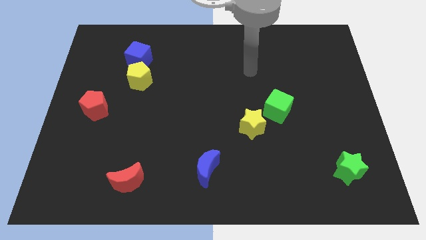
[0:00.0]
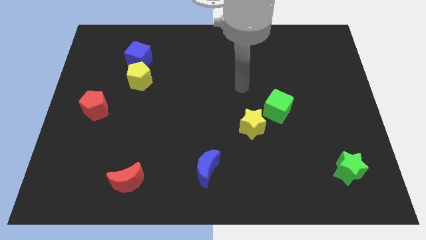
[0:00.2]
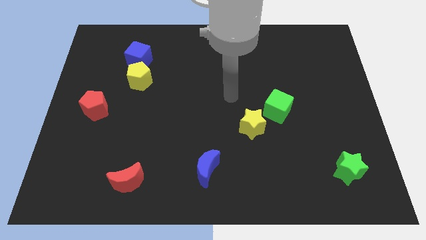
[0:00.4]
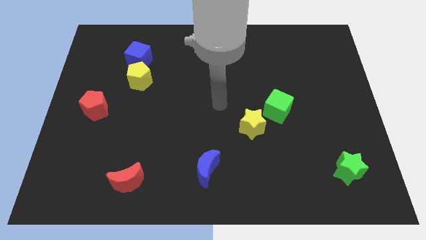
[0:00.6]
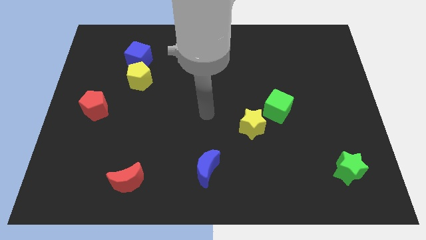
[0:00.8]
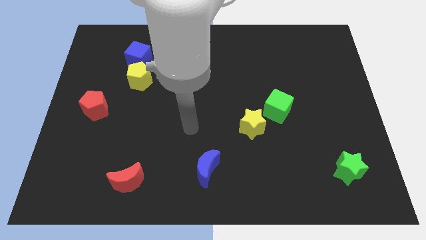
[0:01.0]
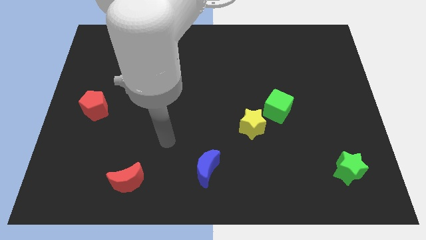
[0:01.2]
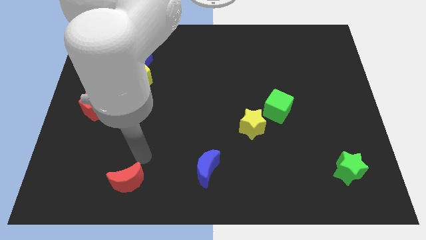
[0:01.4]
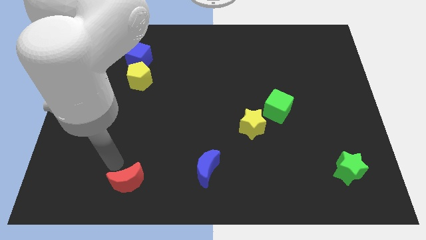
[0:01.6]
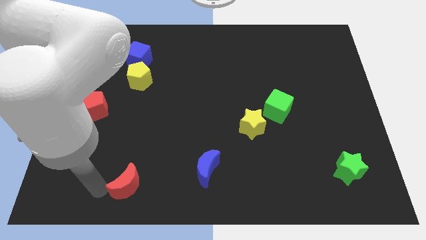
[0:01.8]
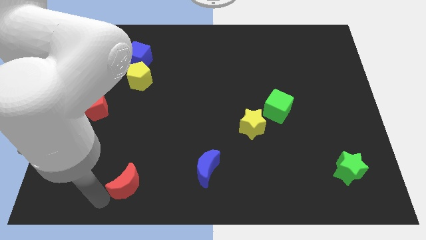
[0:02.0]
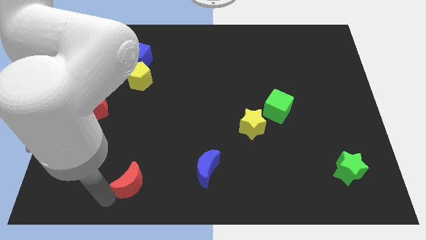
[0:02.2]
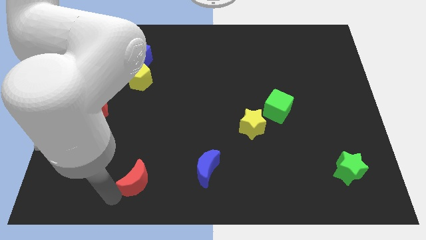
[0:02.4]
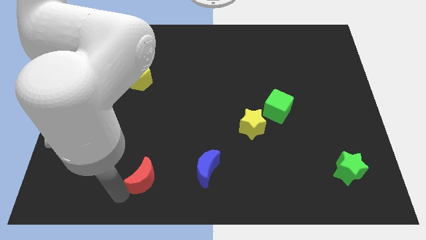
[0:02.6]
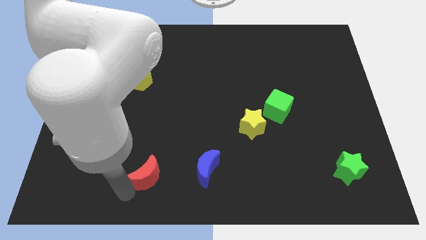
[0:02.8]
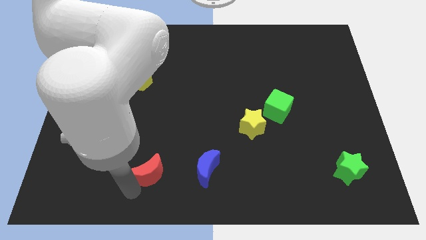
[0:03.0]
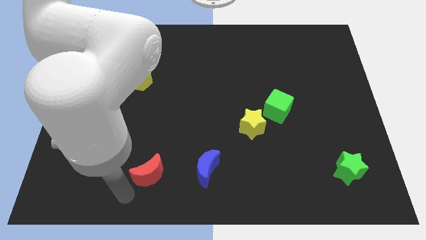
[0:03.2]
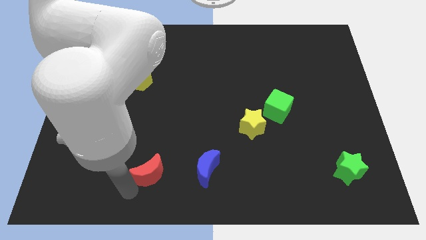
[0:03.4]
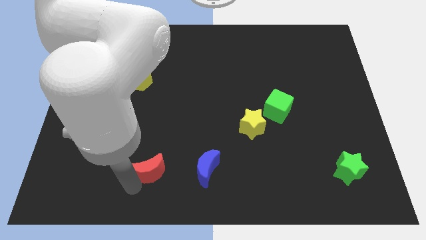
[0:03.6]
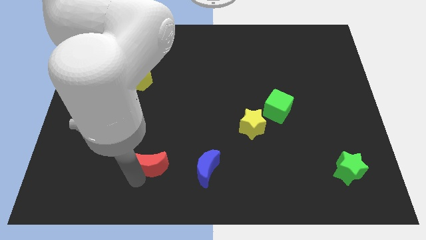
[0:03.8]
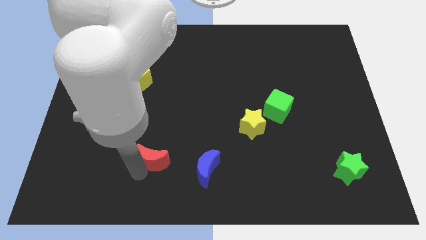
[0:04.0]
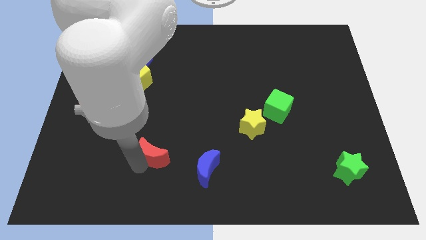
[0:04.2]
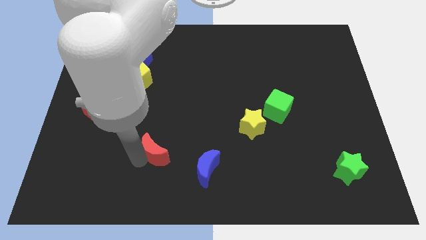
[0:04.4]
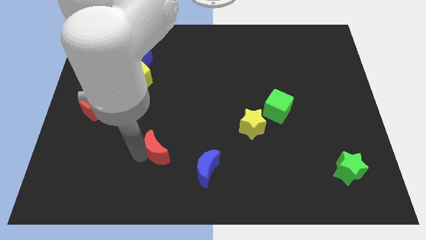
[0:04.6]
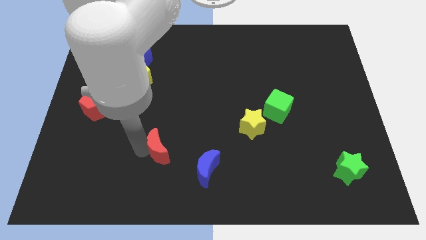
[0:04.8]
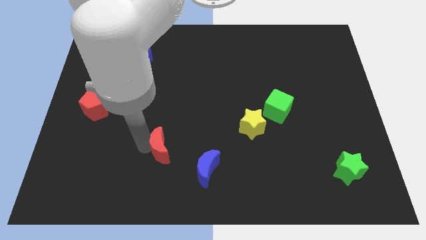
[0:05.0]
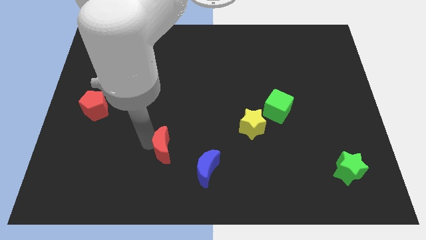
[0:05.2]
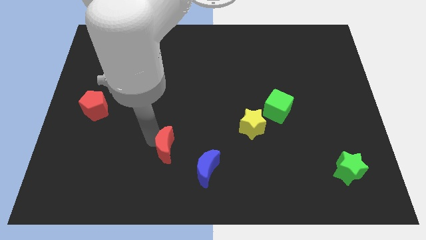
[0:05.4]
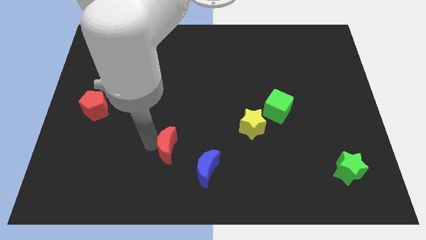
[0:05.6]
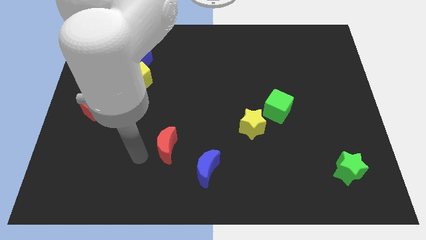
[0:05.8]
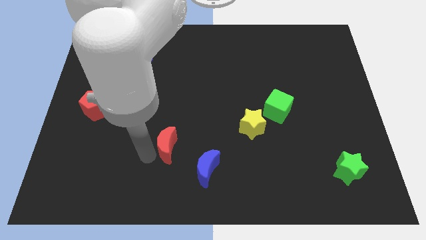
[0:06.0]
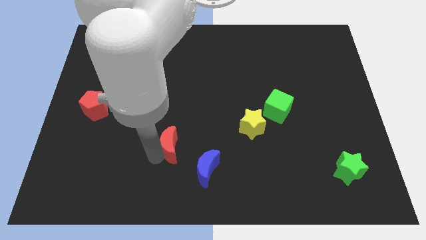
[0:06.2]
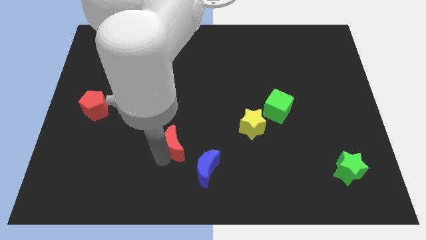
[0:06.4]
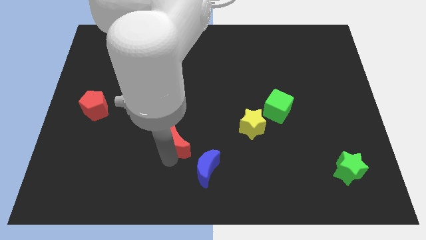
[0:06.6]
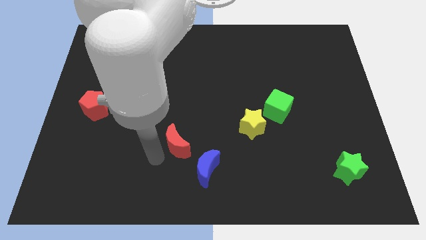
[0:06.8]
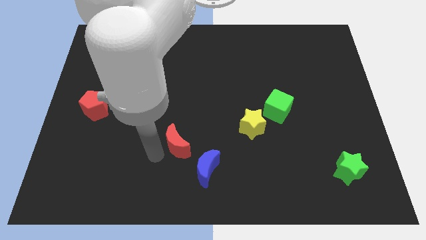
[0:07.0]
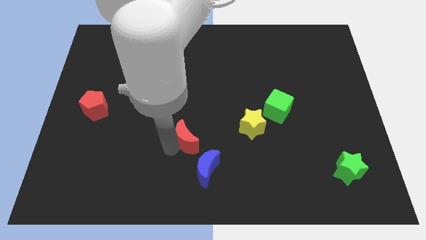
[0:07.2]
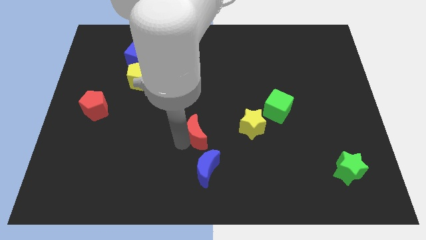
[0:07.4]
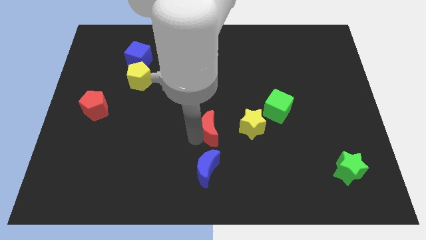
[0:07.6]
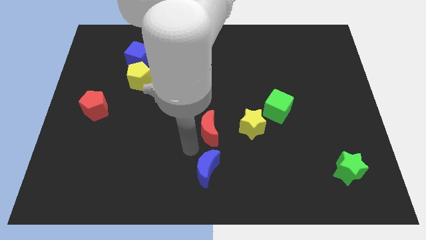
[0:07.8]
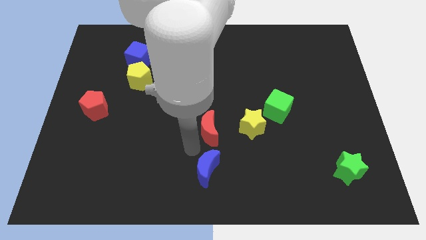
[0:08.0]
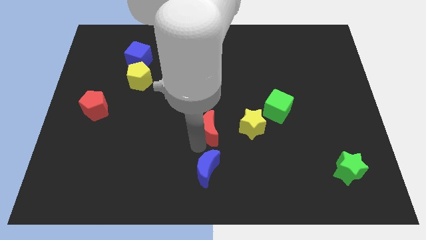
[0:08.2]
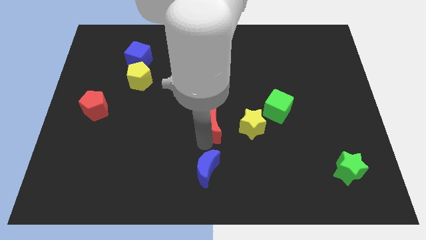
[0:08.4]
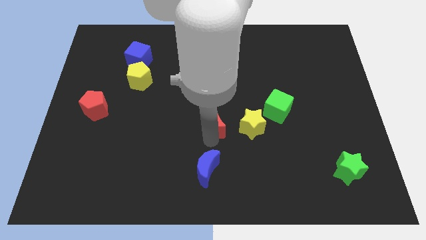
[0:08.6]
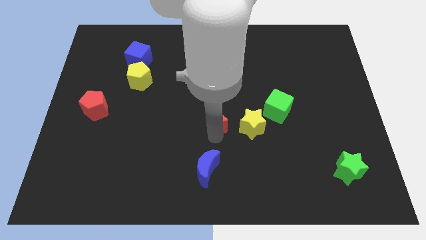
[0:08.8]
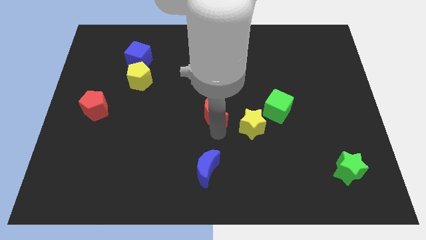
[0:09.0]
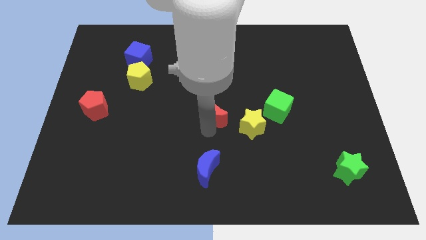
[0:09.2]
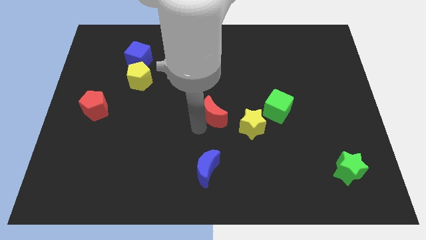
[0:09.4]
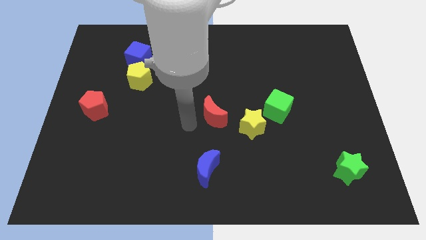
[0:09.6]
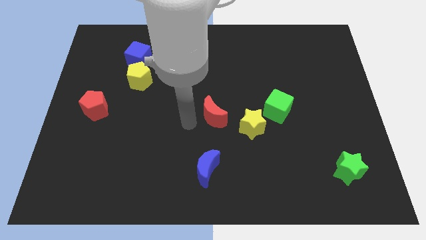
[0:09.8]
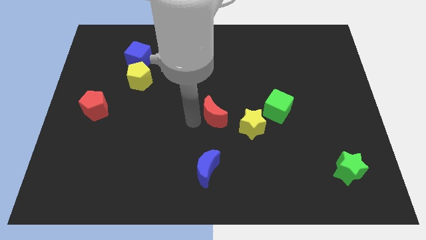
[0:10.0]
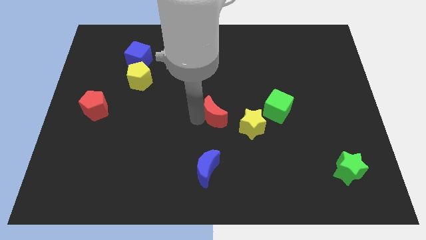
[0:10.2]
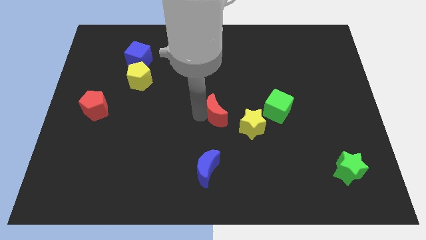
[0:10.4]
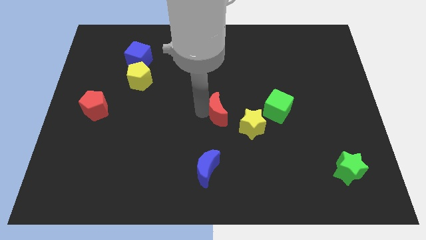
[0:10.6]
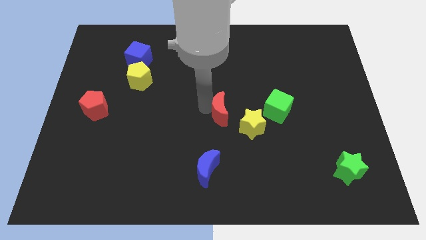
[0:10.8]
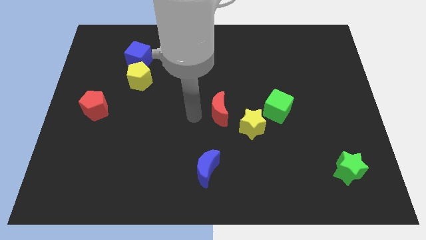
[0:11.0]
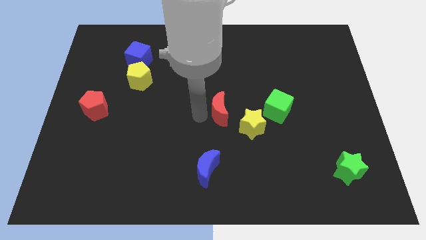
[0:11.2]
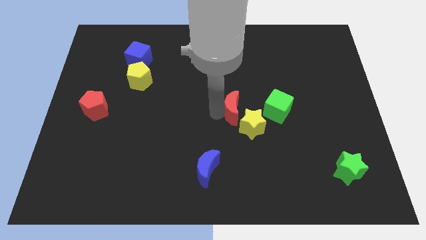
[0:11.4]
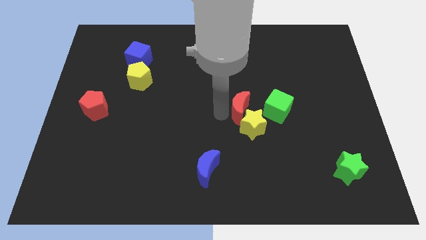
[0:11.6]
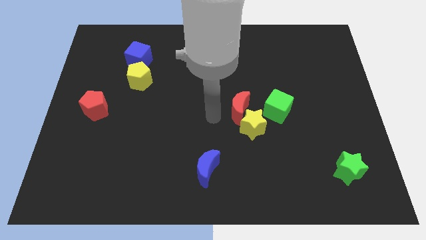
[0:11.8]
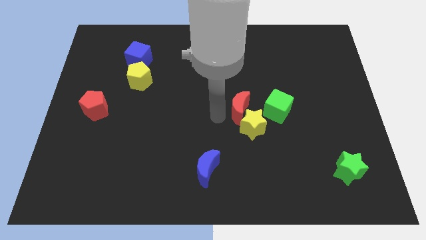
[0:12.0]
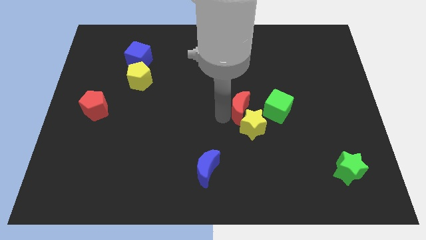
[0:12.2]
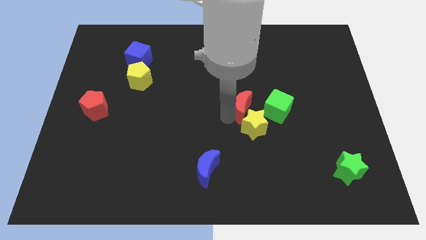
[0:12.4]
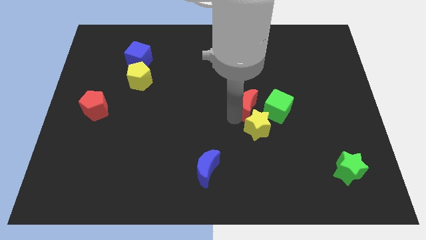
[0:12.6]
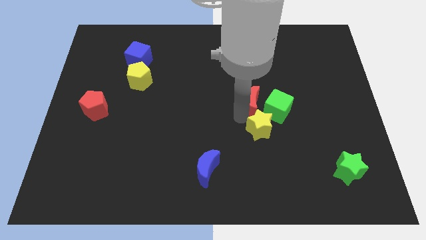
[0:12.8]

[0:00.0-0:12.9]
slide the red moon next to the green cube
